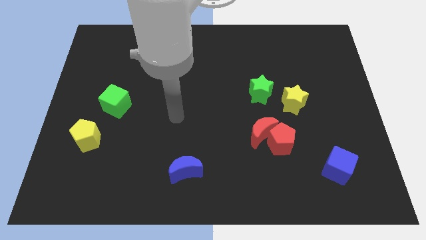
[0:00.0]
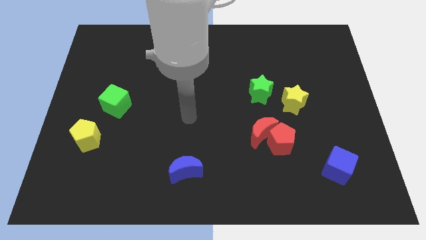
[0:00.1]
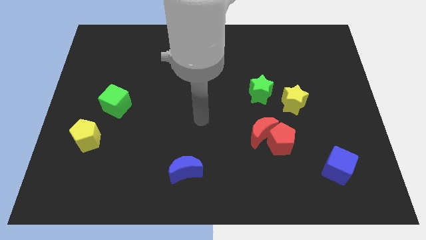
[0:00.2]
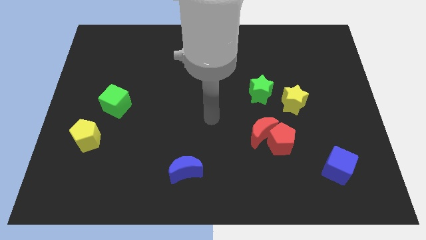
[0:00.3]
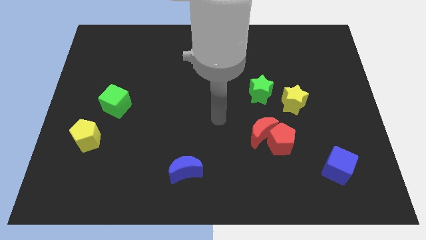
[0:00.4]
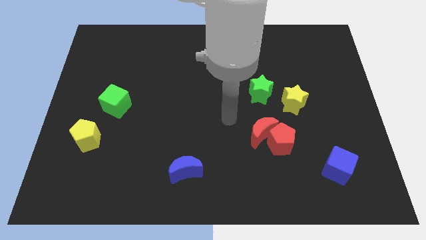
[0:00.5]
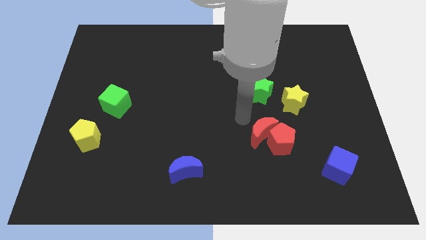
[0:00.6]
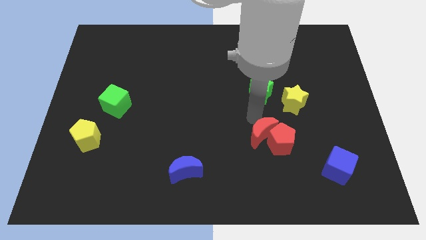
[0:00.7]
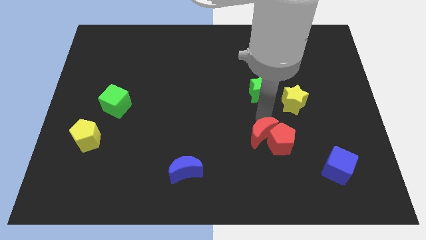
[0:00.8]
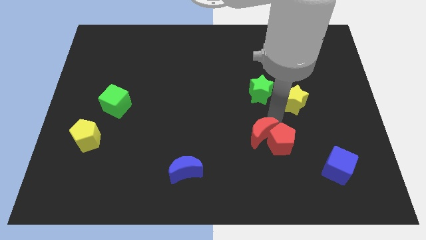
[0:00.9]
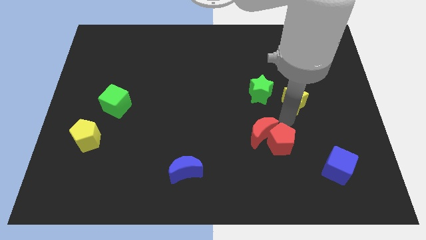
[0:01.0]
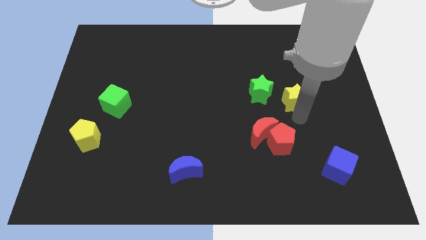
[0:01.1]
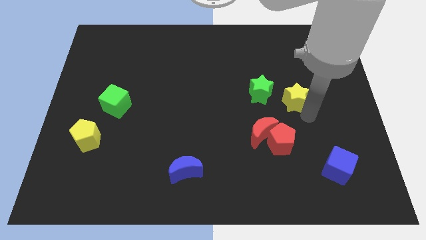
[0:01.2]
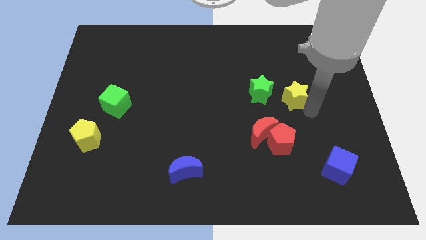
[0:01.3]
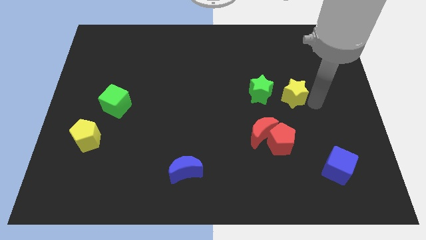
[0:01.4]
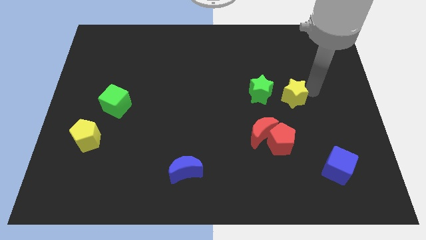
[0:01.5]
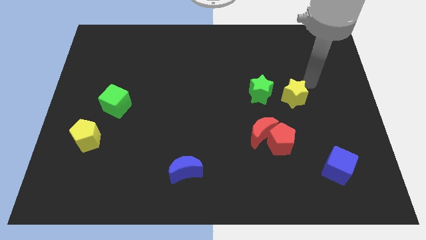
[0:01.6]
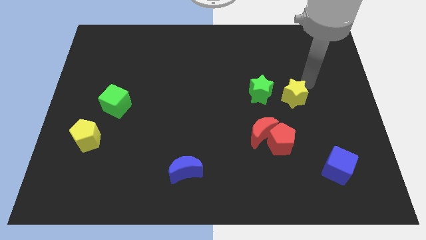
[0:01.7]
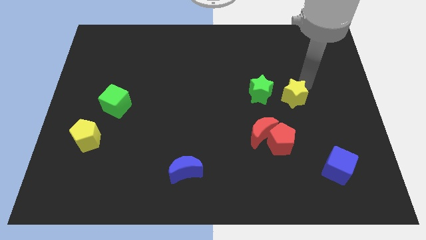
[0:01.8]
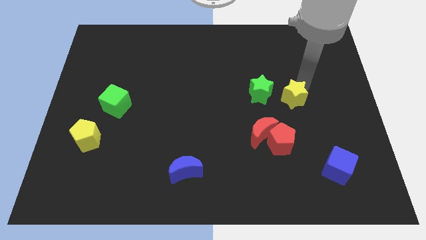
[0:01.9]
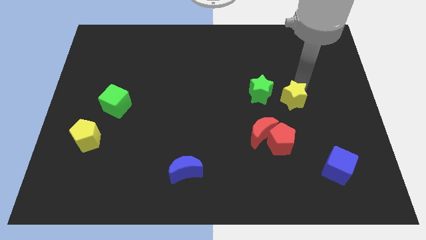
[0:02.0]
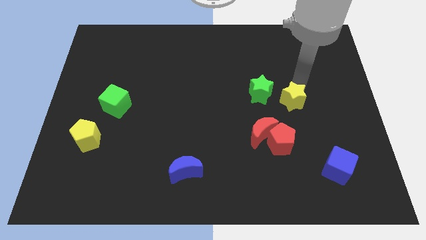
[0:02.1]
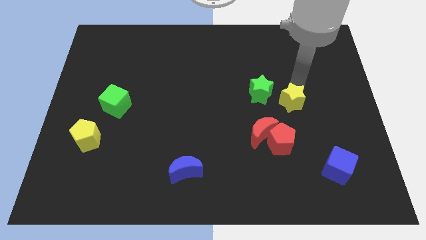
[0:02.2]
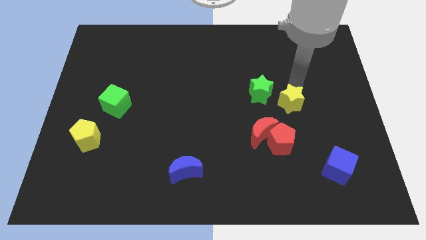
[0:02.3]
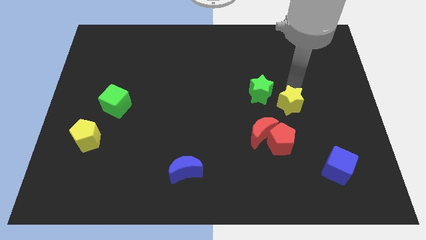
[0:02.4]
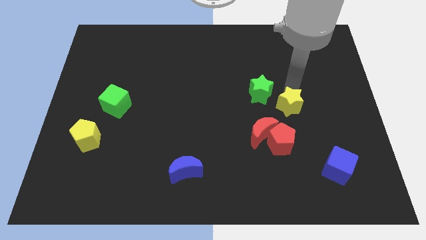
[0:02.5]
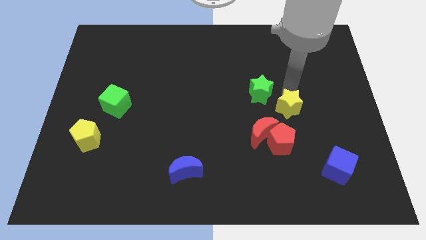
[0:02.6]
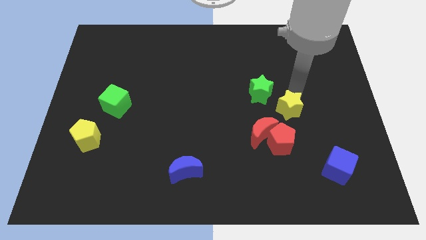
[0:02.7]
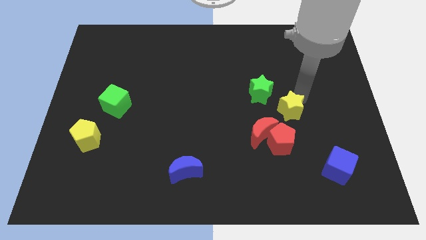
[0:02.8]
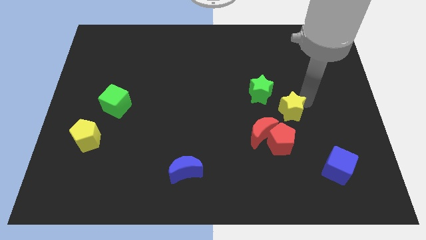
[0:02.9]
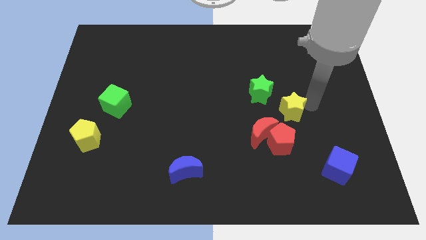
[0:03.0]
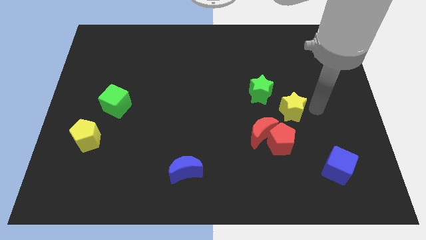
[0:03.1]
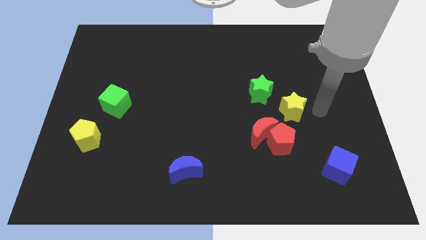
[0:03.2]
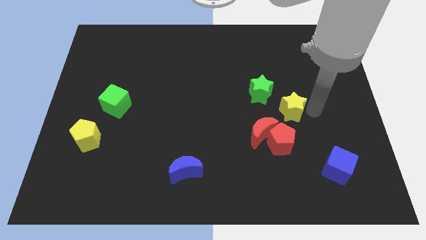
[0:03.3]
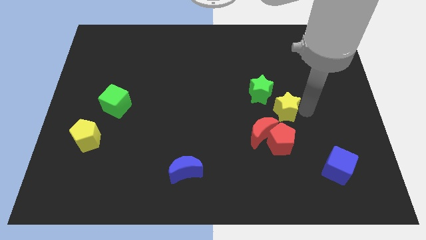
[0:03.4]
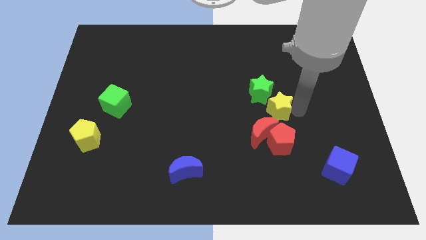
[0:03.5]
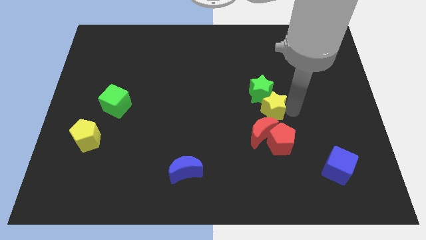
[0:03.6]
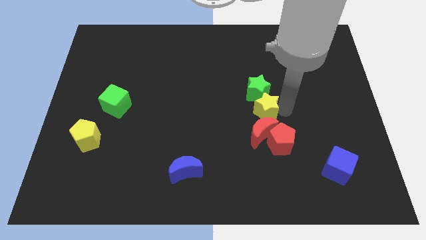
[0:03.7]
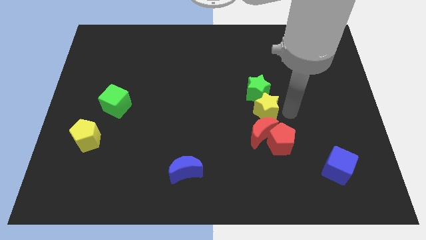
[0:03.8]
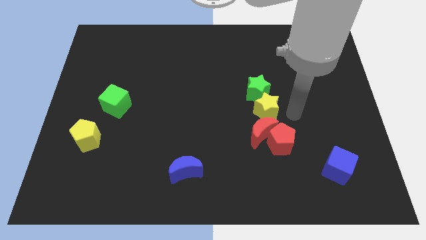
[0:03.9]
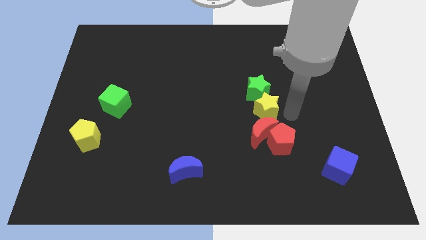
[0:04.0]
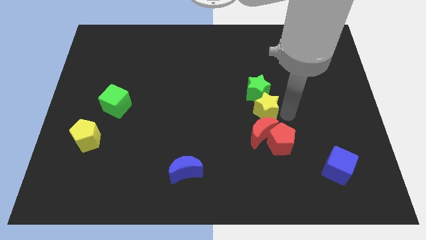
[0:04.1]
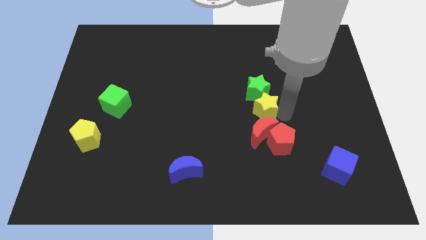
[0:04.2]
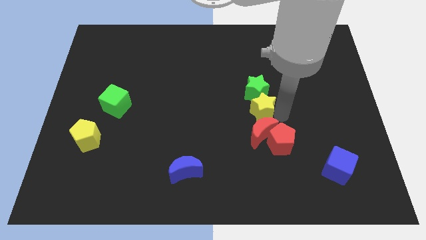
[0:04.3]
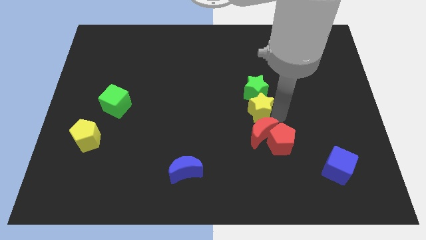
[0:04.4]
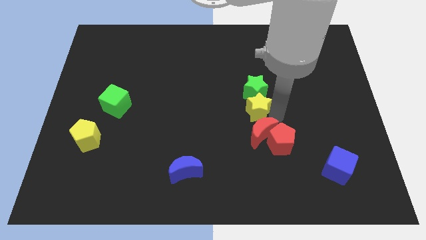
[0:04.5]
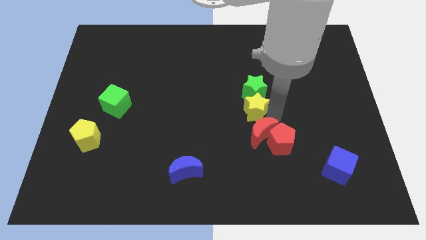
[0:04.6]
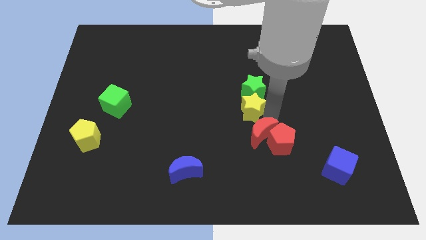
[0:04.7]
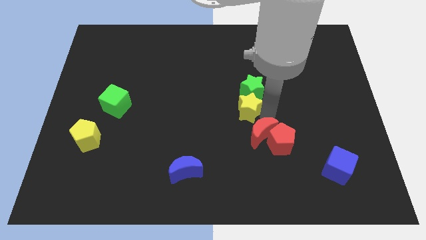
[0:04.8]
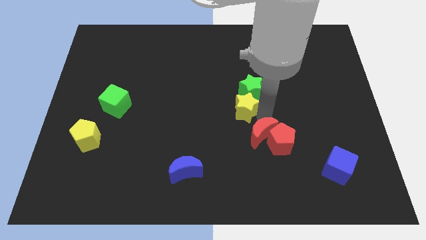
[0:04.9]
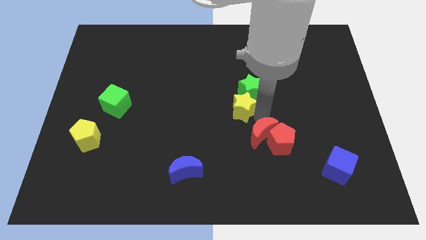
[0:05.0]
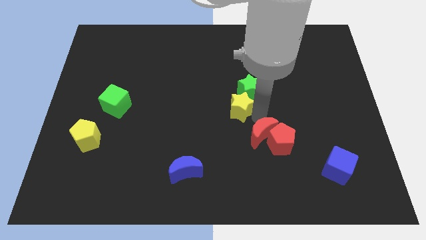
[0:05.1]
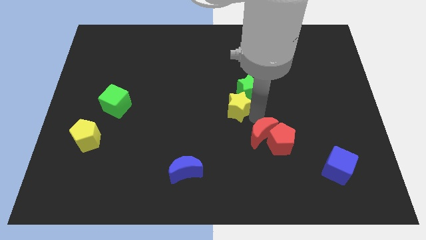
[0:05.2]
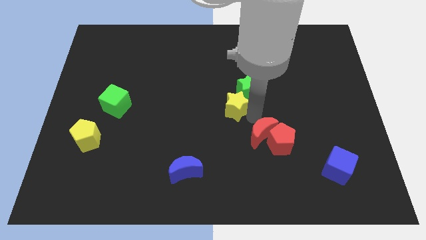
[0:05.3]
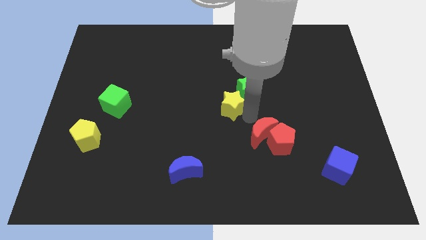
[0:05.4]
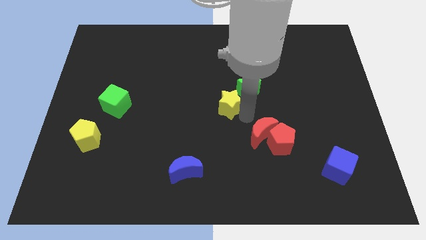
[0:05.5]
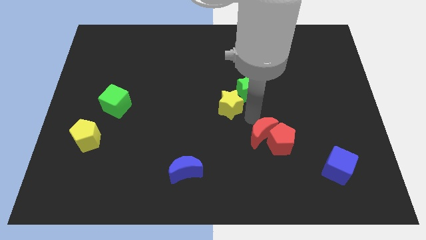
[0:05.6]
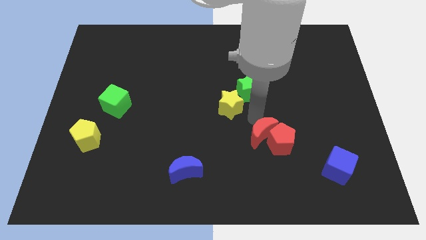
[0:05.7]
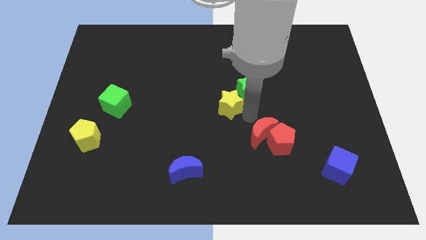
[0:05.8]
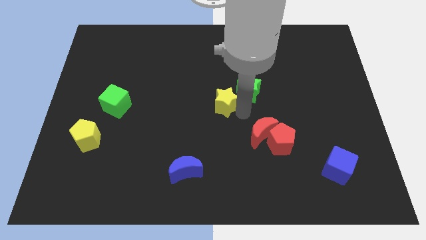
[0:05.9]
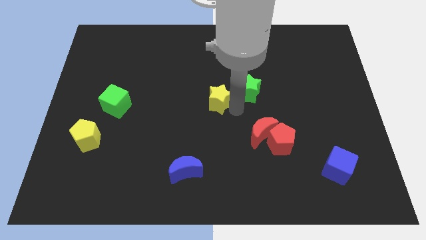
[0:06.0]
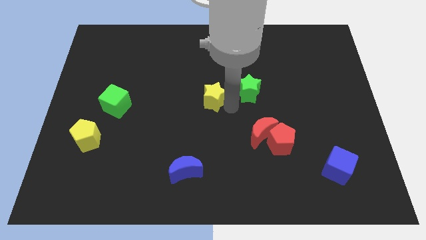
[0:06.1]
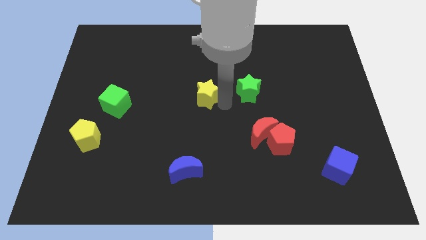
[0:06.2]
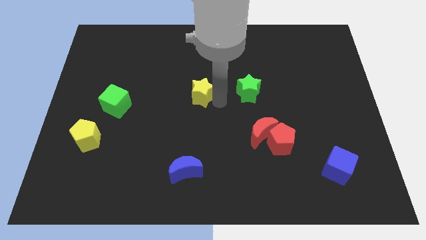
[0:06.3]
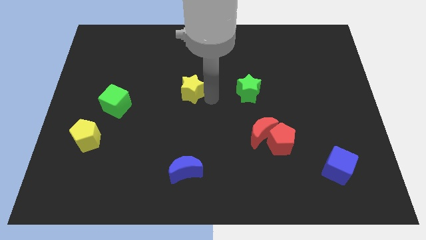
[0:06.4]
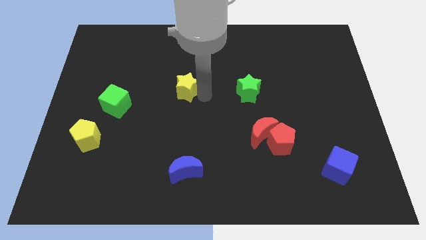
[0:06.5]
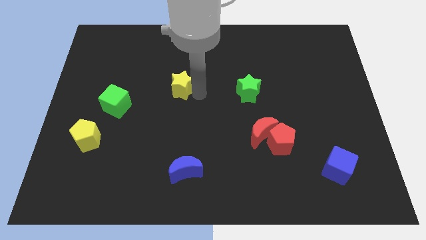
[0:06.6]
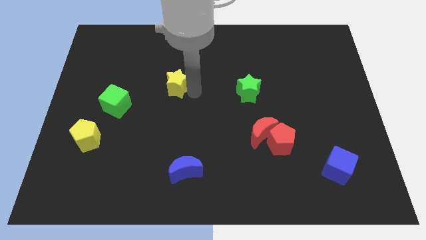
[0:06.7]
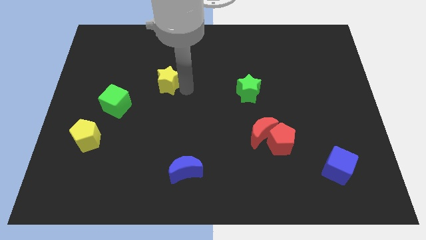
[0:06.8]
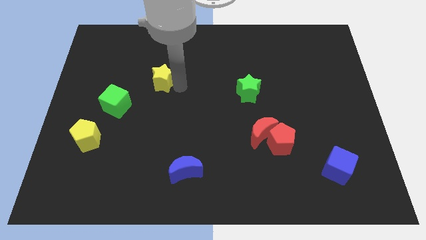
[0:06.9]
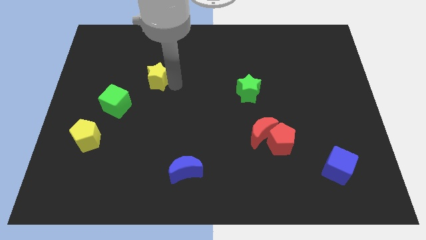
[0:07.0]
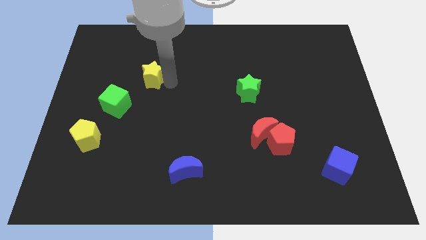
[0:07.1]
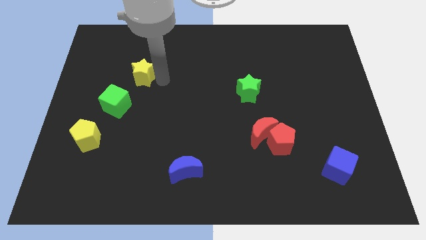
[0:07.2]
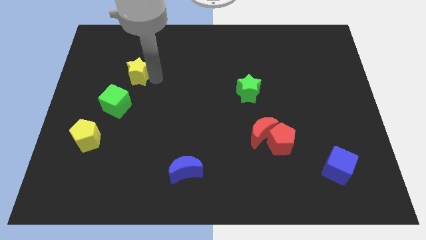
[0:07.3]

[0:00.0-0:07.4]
put the yellow star to the top side of the green cube

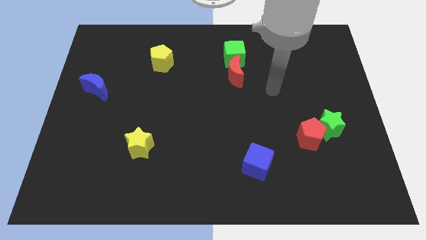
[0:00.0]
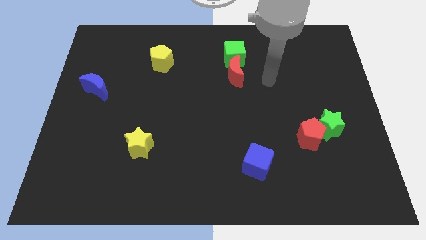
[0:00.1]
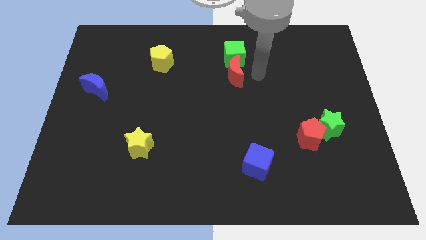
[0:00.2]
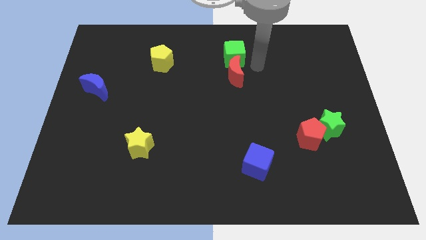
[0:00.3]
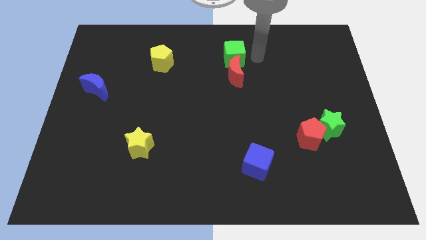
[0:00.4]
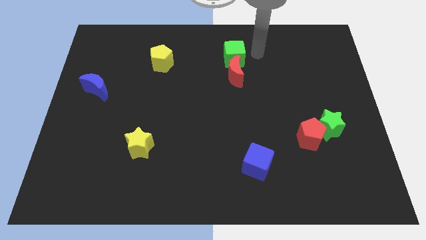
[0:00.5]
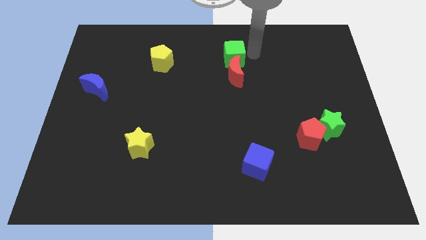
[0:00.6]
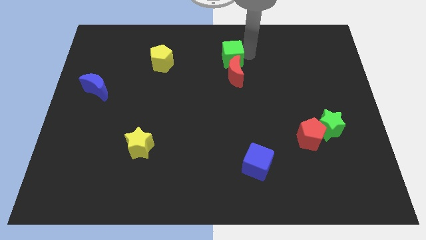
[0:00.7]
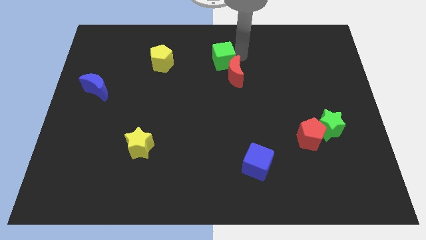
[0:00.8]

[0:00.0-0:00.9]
move the green cube just right of the yellow pentagon
